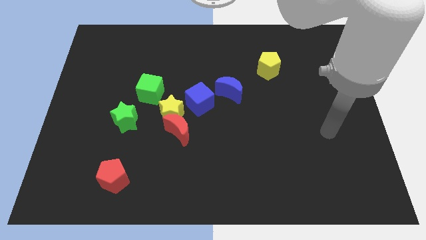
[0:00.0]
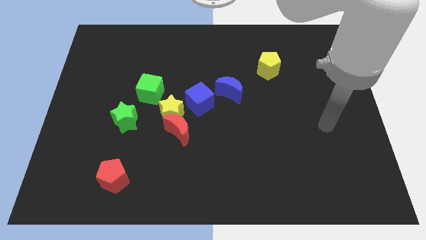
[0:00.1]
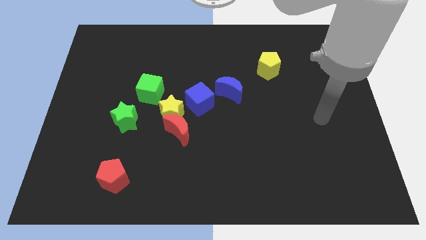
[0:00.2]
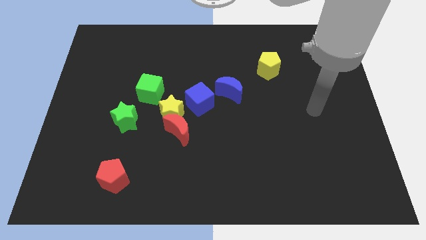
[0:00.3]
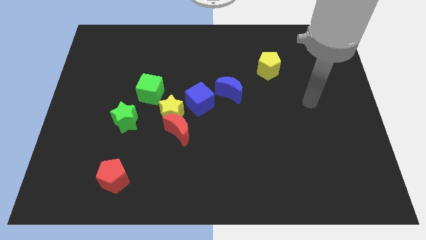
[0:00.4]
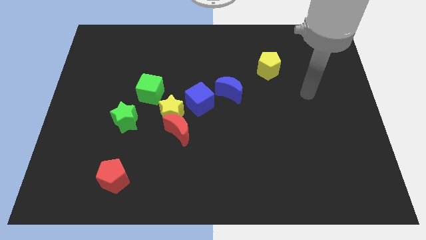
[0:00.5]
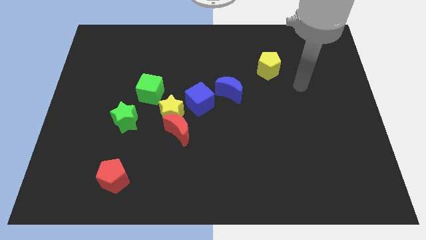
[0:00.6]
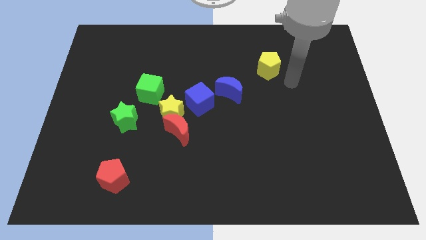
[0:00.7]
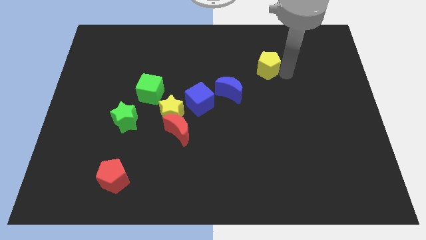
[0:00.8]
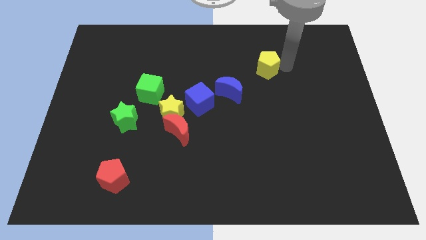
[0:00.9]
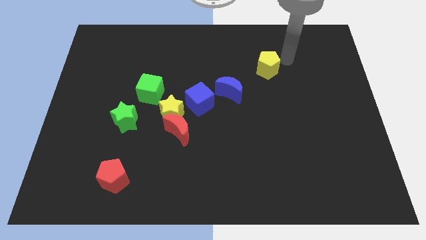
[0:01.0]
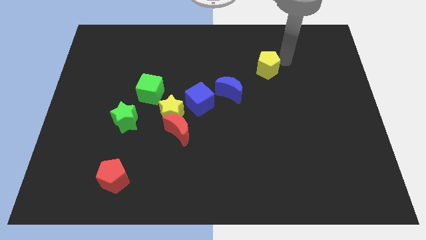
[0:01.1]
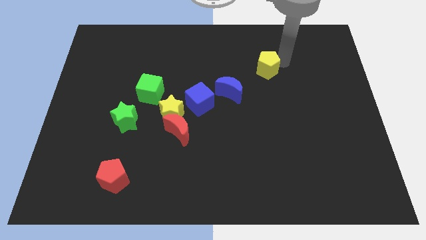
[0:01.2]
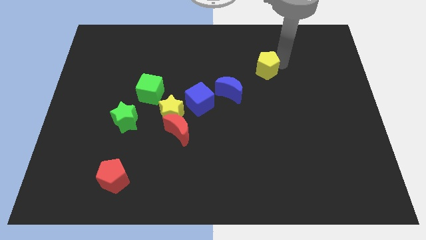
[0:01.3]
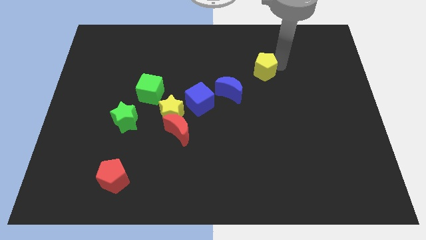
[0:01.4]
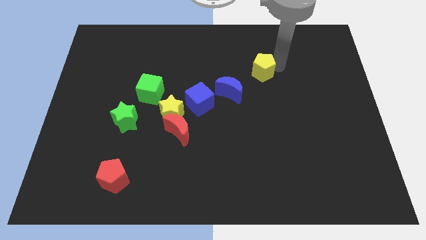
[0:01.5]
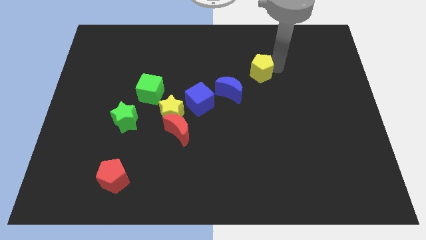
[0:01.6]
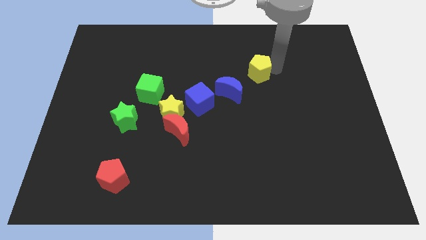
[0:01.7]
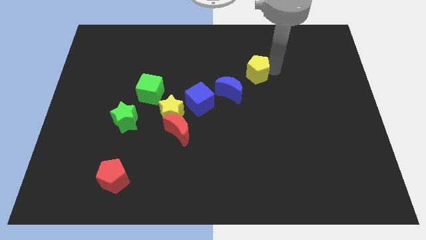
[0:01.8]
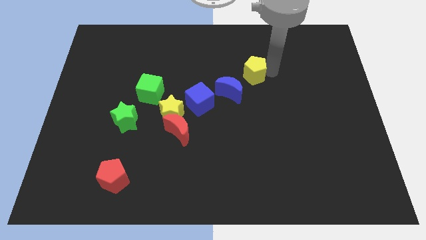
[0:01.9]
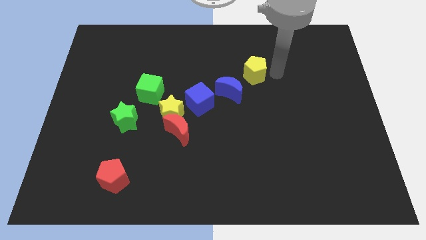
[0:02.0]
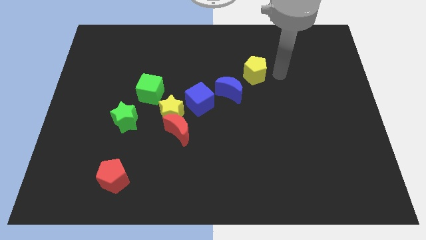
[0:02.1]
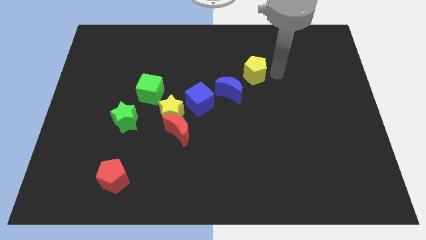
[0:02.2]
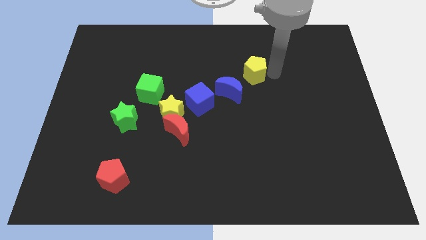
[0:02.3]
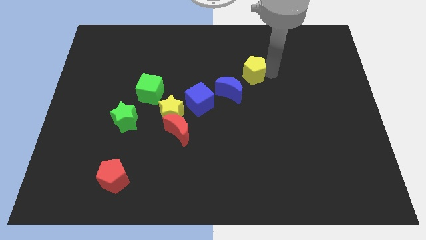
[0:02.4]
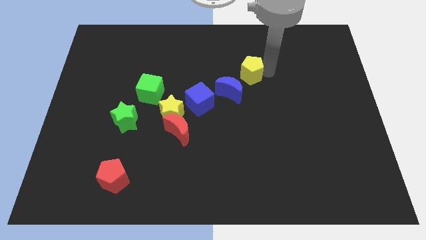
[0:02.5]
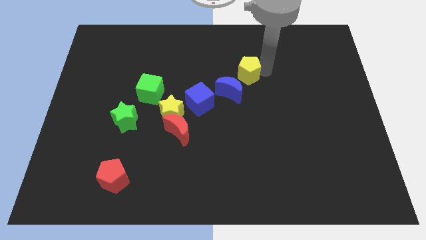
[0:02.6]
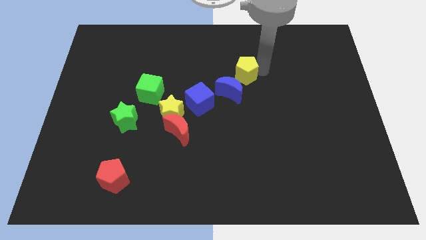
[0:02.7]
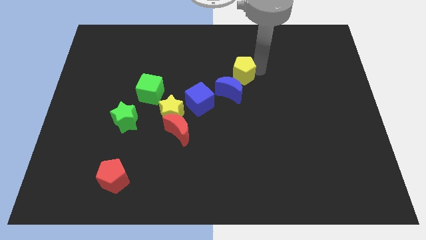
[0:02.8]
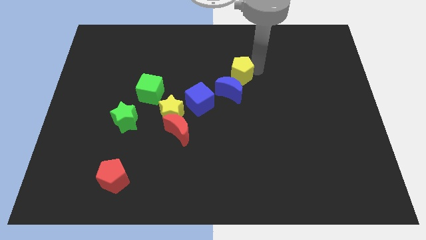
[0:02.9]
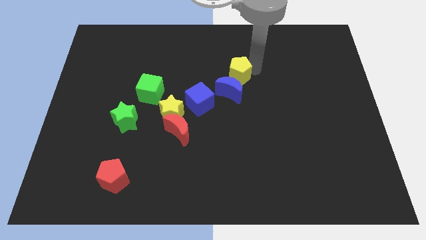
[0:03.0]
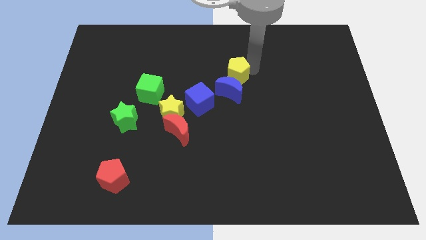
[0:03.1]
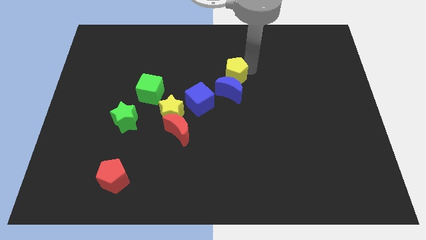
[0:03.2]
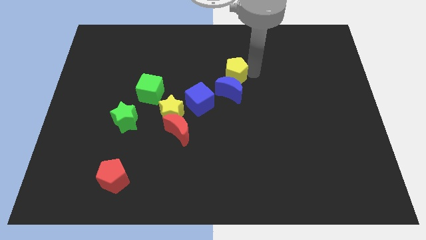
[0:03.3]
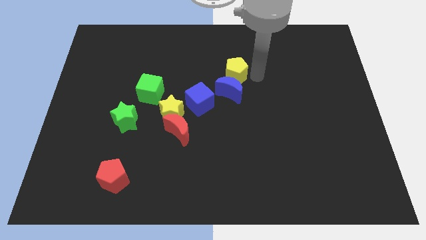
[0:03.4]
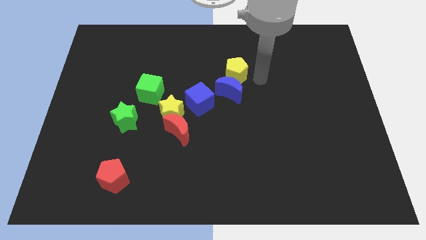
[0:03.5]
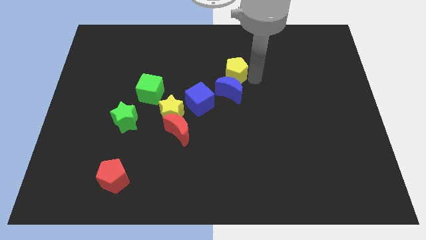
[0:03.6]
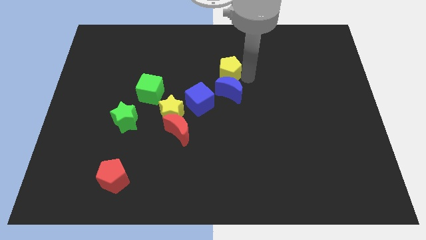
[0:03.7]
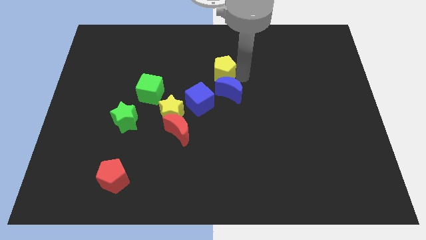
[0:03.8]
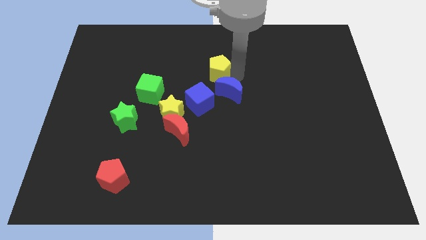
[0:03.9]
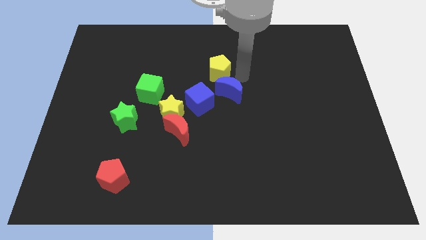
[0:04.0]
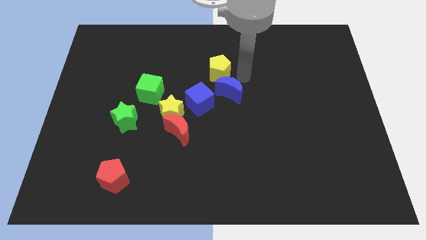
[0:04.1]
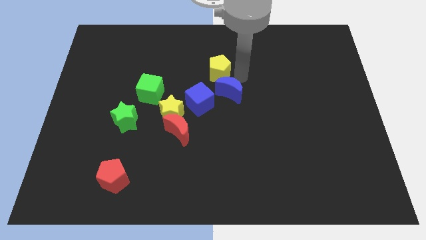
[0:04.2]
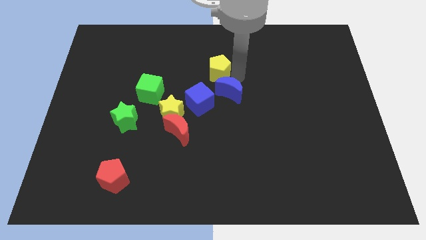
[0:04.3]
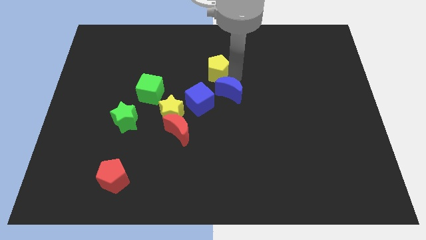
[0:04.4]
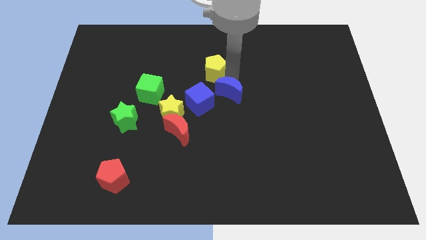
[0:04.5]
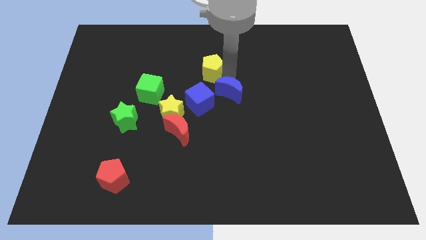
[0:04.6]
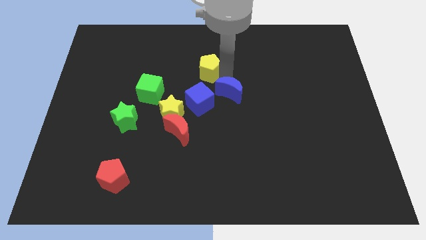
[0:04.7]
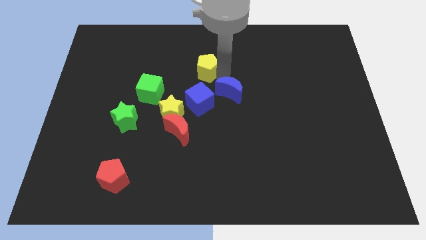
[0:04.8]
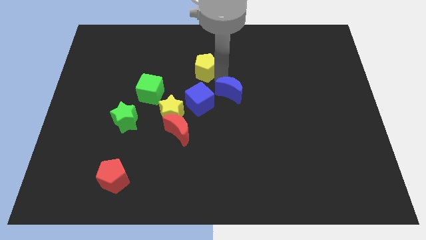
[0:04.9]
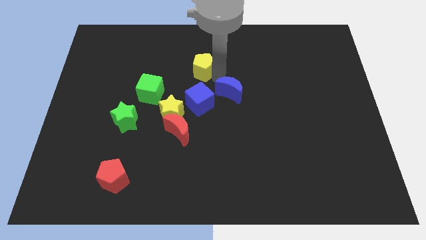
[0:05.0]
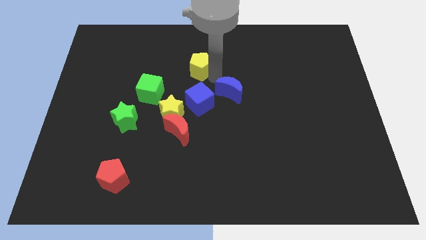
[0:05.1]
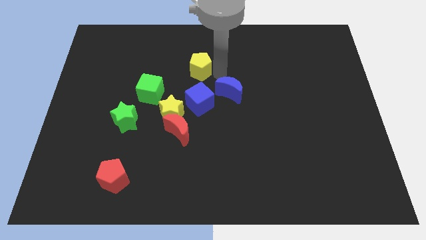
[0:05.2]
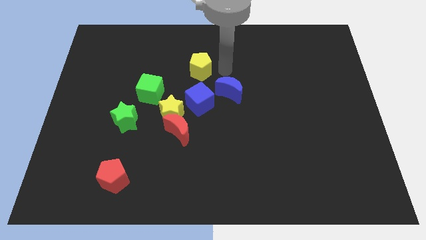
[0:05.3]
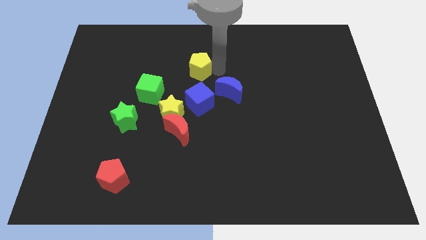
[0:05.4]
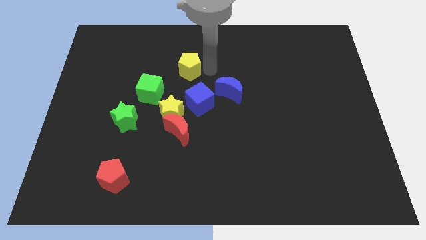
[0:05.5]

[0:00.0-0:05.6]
push the yellow pentagon to the left

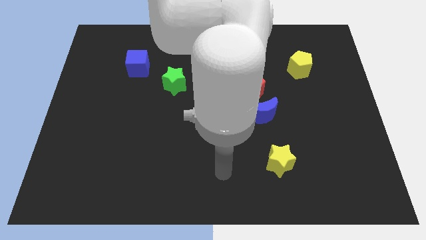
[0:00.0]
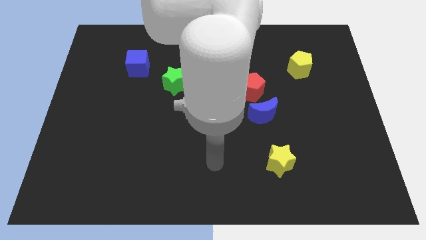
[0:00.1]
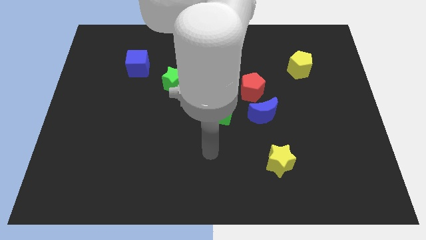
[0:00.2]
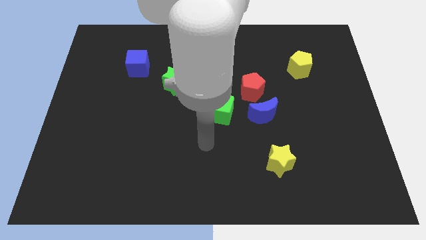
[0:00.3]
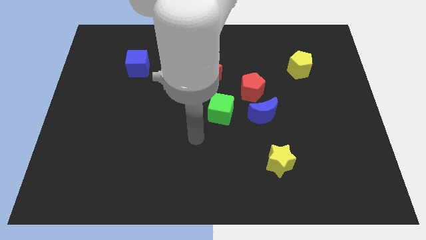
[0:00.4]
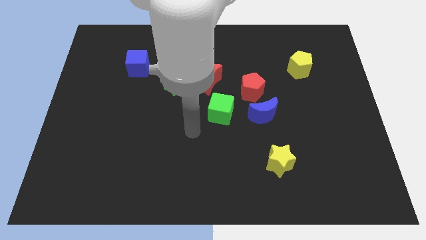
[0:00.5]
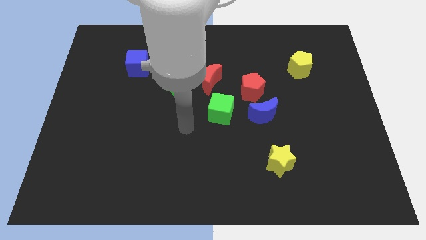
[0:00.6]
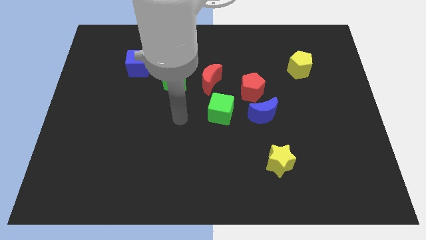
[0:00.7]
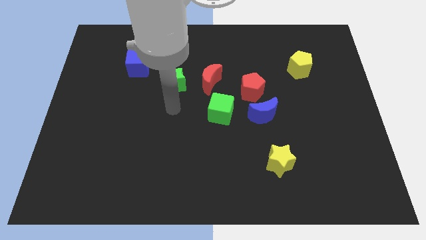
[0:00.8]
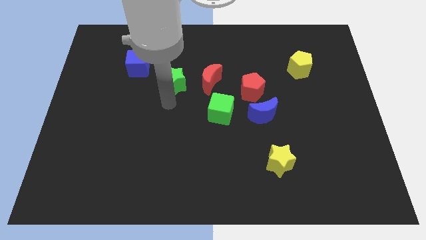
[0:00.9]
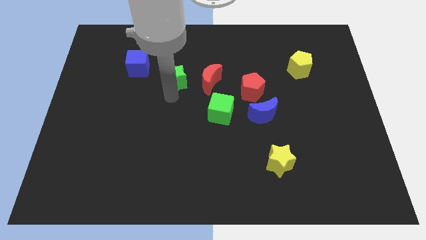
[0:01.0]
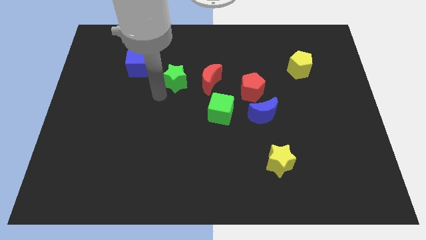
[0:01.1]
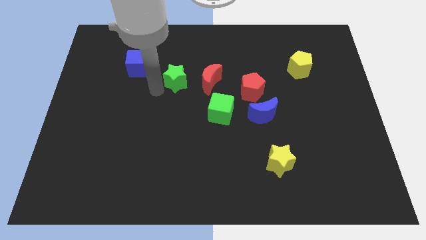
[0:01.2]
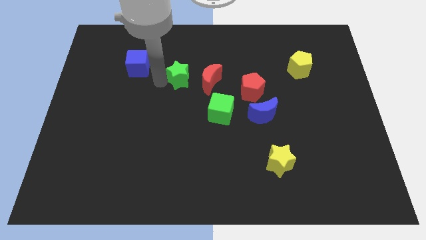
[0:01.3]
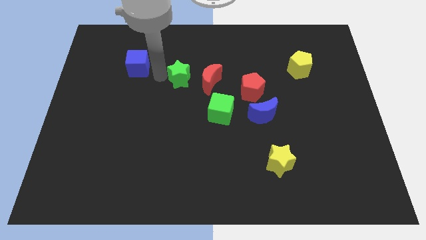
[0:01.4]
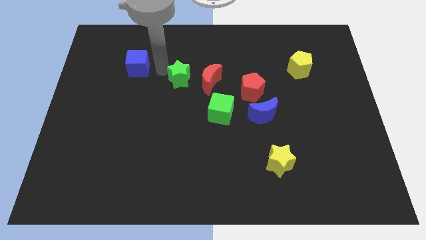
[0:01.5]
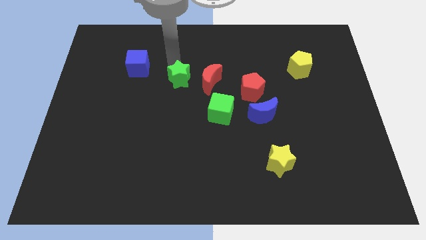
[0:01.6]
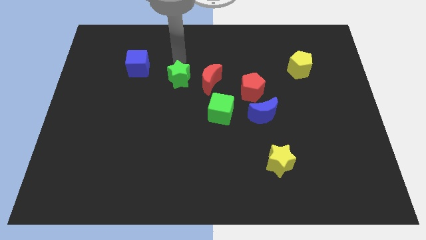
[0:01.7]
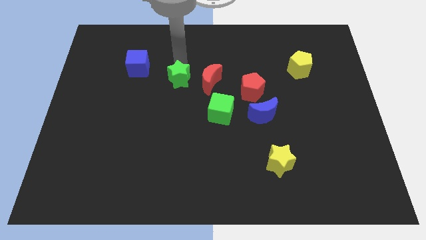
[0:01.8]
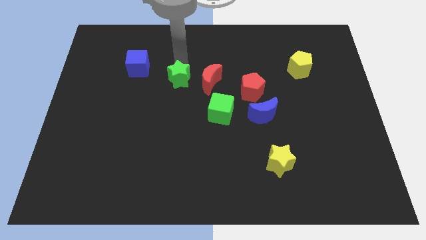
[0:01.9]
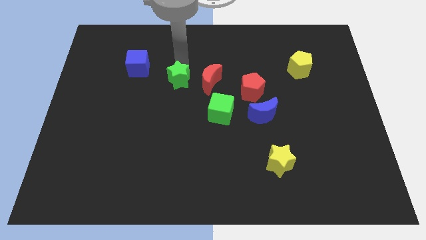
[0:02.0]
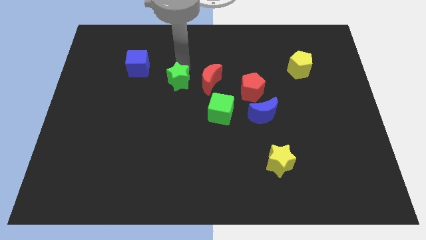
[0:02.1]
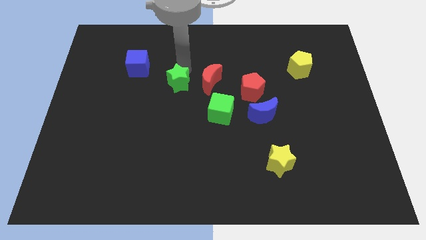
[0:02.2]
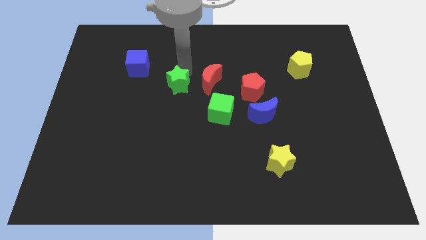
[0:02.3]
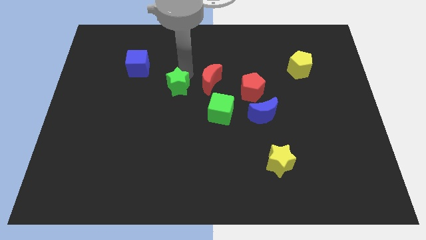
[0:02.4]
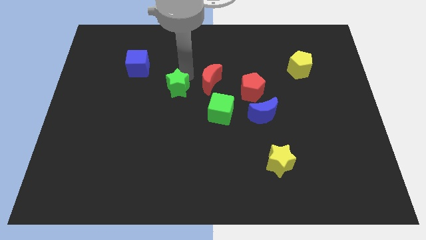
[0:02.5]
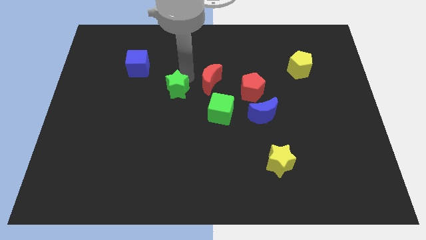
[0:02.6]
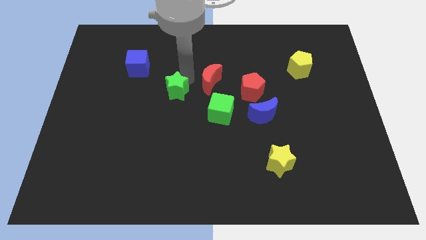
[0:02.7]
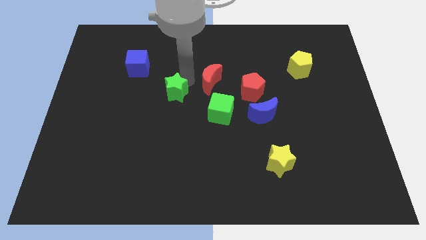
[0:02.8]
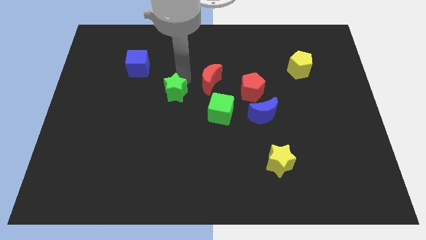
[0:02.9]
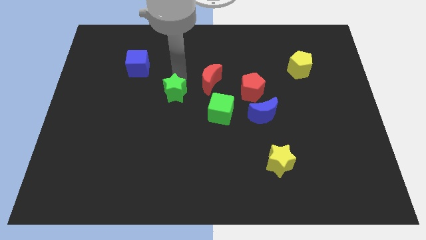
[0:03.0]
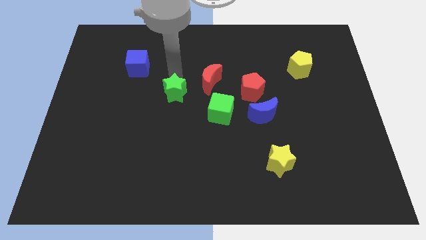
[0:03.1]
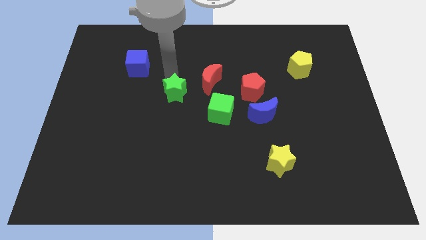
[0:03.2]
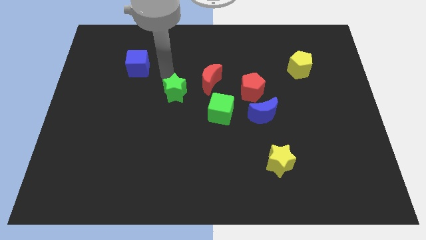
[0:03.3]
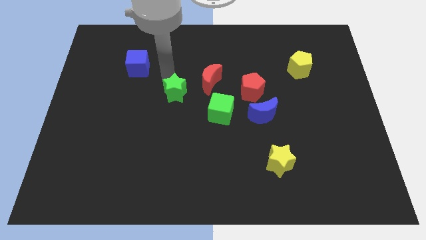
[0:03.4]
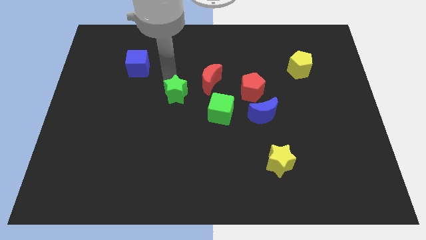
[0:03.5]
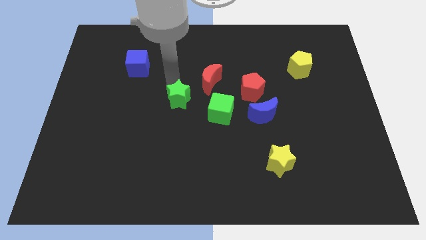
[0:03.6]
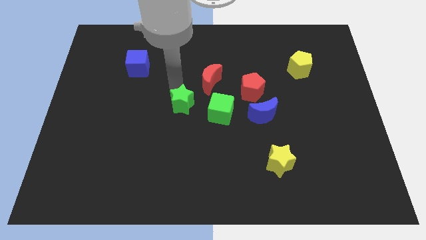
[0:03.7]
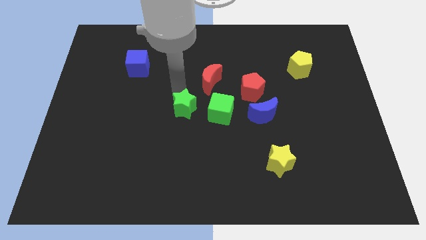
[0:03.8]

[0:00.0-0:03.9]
move the green star a little diagonally down and to the right
